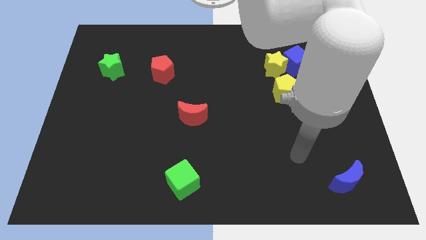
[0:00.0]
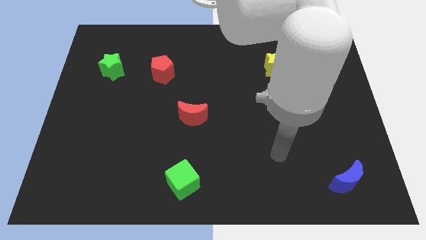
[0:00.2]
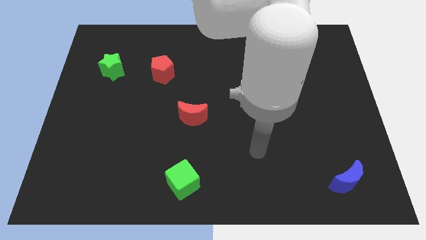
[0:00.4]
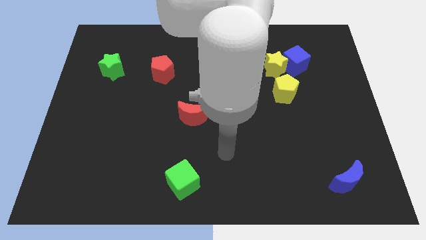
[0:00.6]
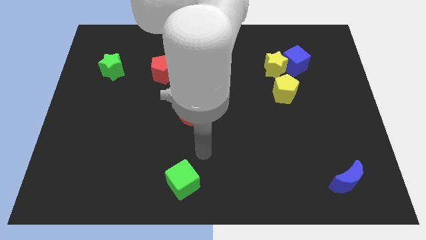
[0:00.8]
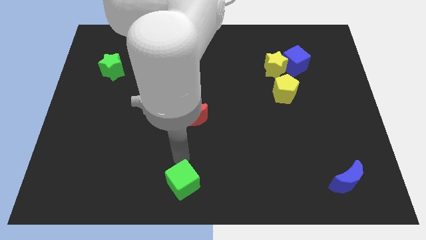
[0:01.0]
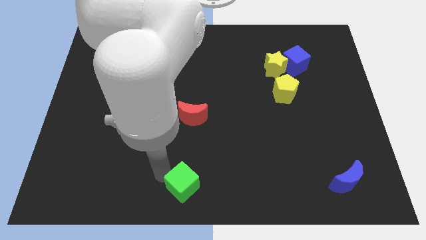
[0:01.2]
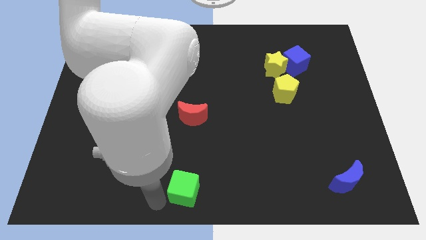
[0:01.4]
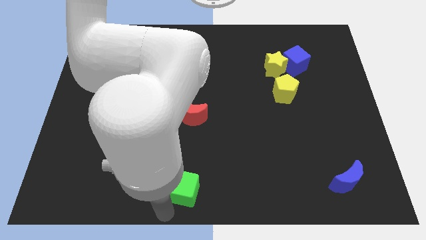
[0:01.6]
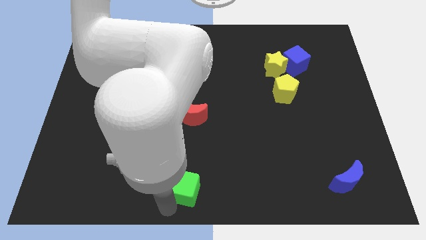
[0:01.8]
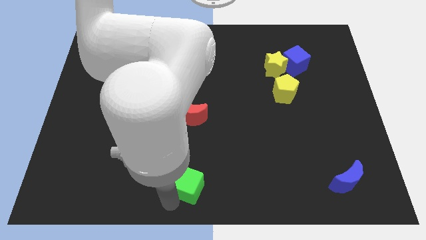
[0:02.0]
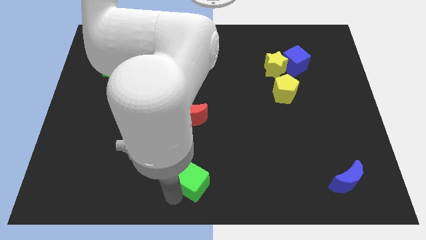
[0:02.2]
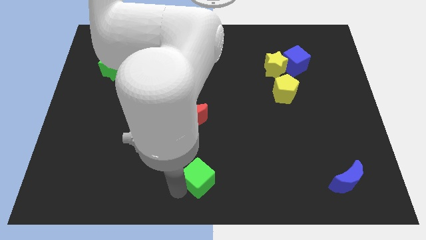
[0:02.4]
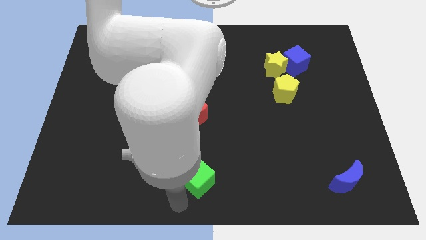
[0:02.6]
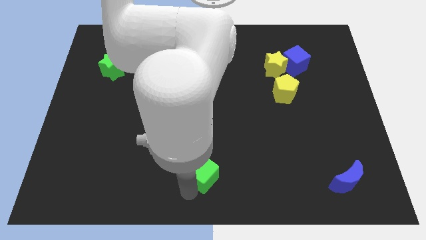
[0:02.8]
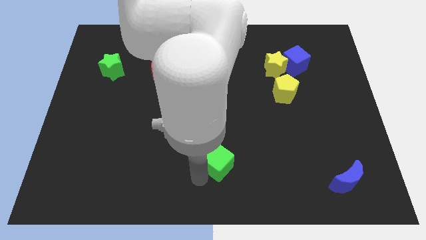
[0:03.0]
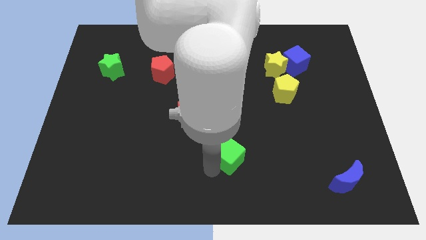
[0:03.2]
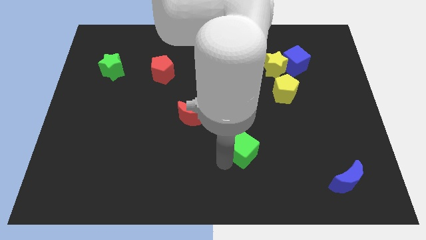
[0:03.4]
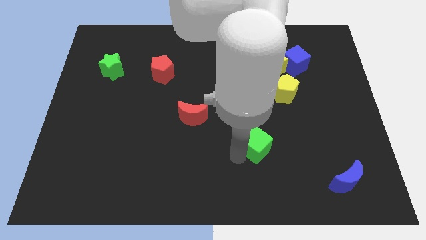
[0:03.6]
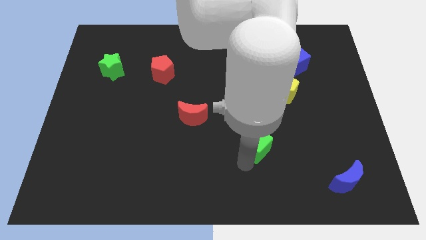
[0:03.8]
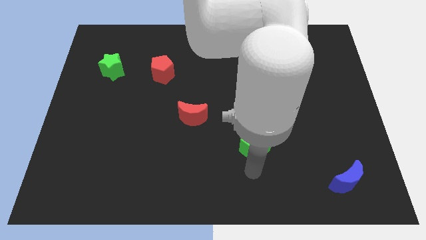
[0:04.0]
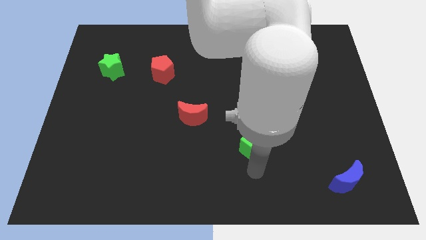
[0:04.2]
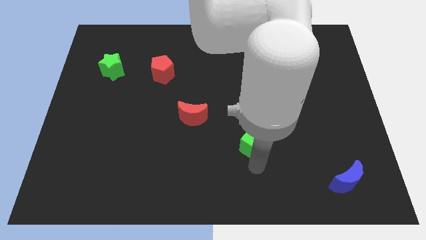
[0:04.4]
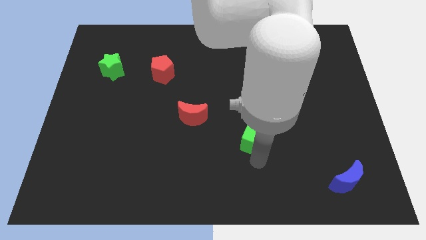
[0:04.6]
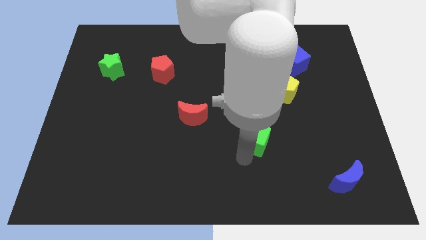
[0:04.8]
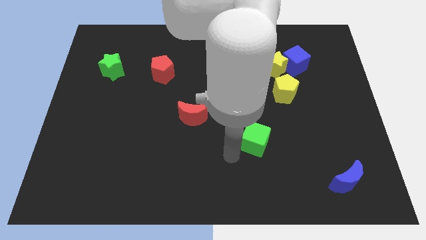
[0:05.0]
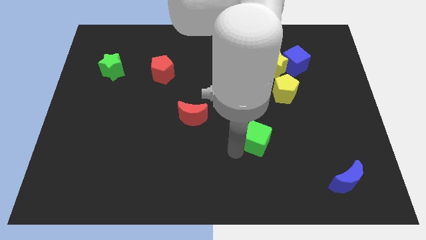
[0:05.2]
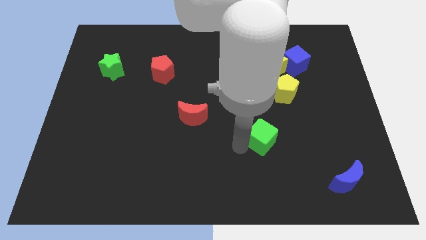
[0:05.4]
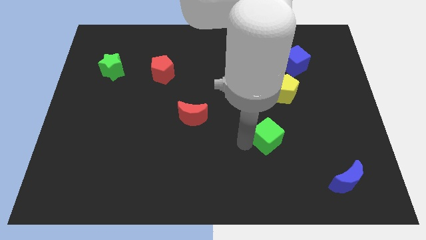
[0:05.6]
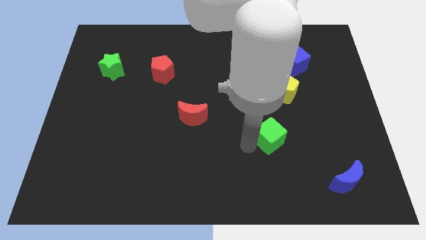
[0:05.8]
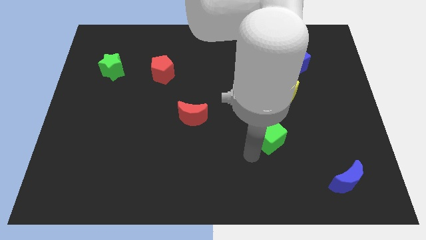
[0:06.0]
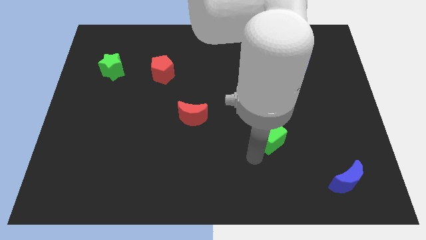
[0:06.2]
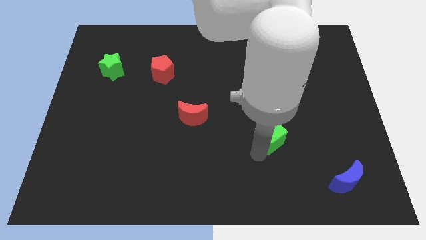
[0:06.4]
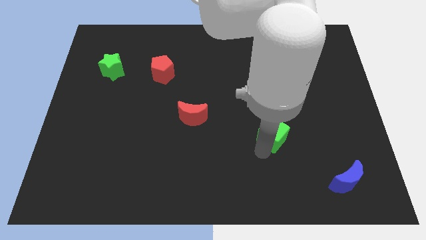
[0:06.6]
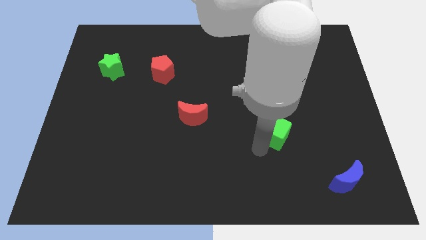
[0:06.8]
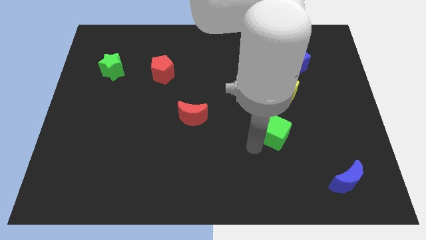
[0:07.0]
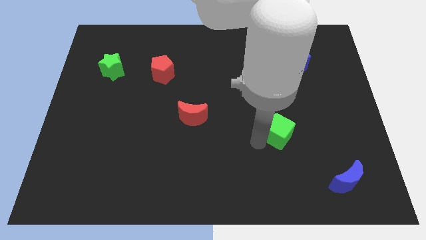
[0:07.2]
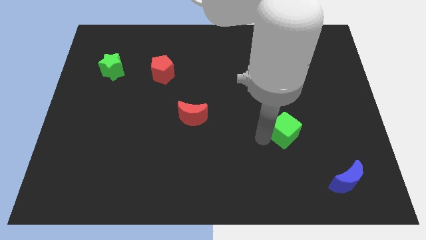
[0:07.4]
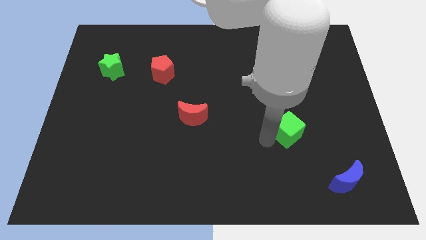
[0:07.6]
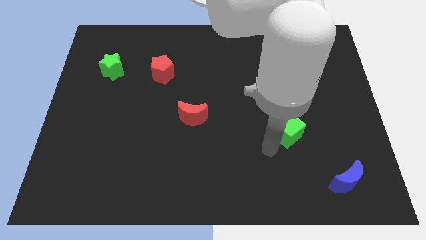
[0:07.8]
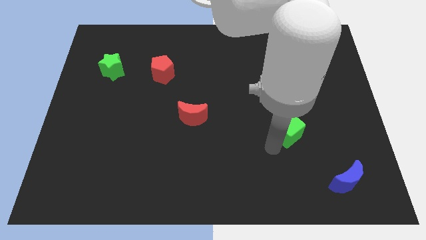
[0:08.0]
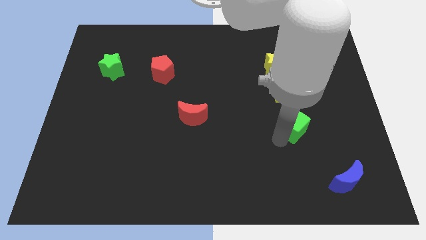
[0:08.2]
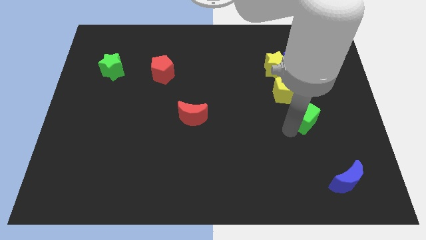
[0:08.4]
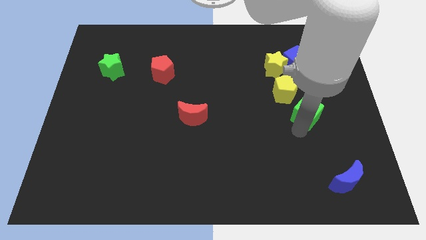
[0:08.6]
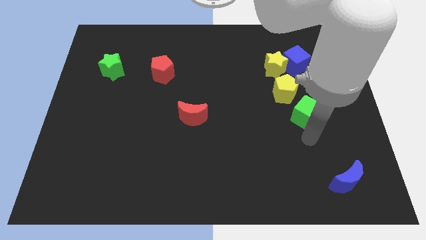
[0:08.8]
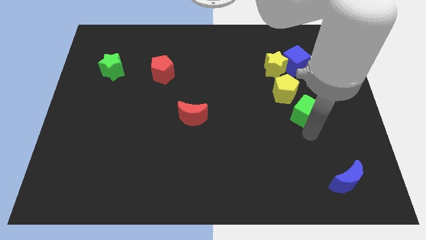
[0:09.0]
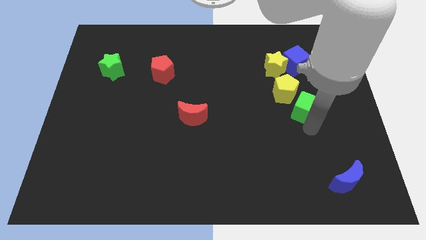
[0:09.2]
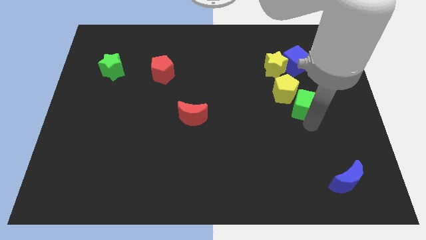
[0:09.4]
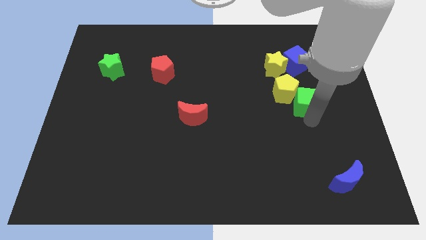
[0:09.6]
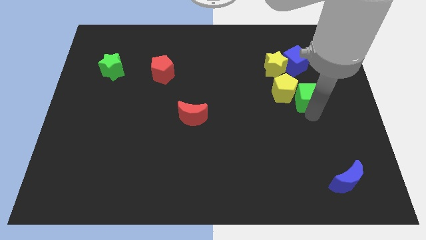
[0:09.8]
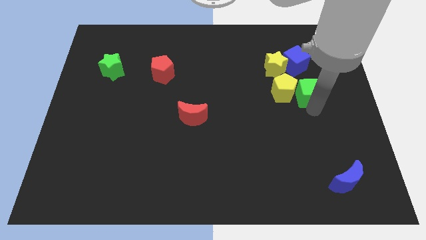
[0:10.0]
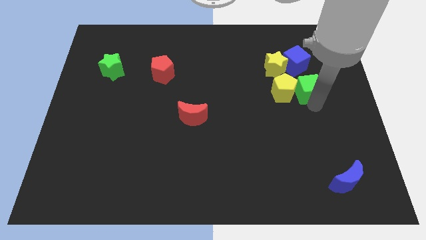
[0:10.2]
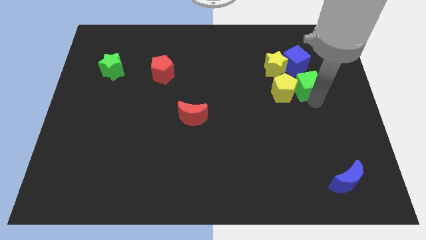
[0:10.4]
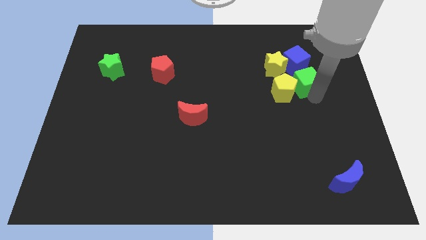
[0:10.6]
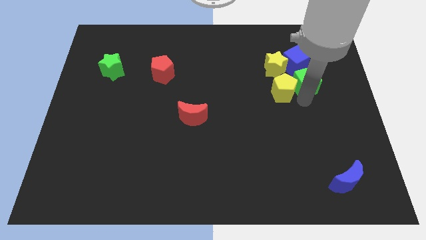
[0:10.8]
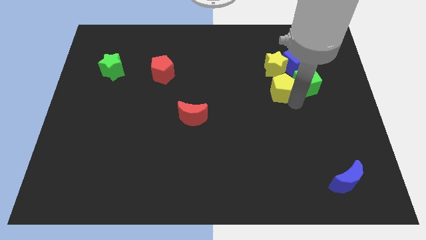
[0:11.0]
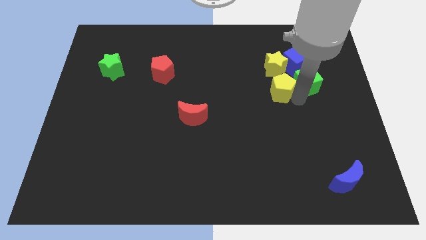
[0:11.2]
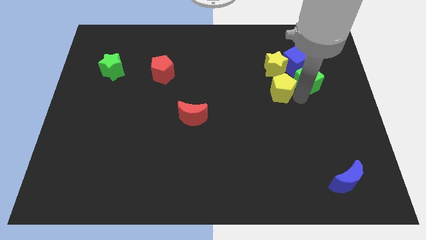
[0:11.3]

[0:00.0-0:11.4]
push the green cube to the right of the yellow star

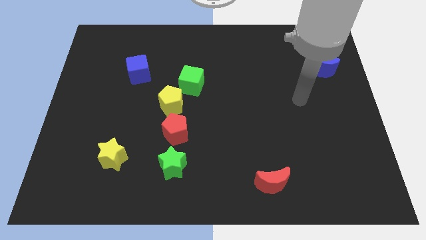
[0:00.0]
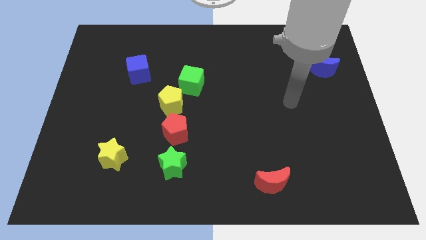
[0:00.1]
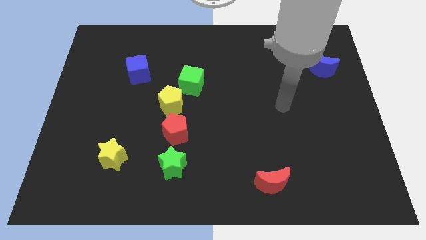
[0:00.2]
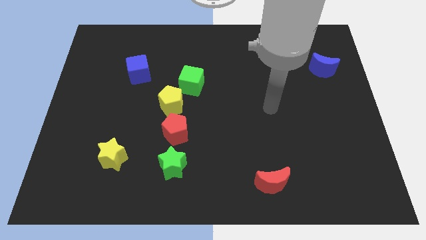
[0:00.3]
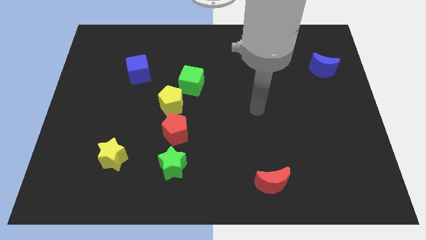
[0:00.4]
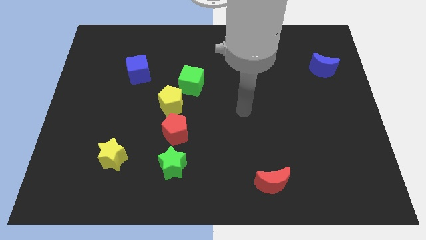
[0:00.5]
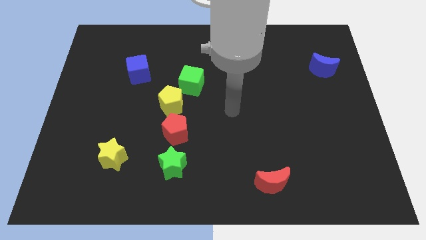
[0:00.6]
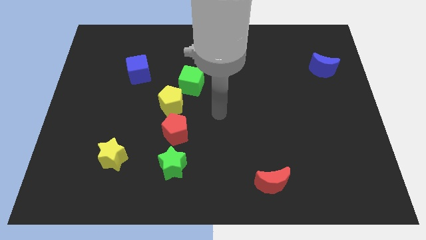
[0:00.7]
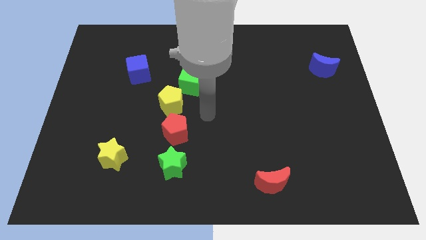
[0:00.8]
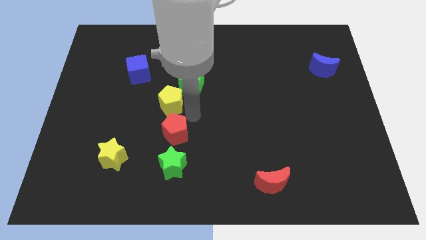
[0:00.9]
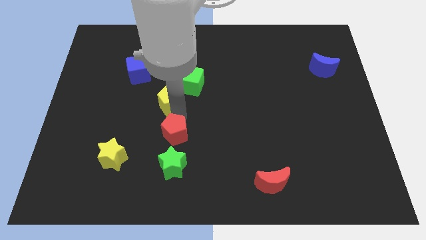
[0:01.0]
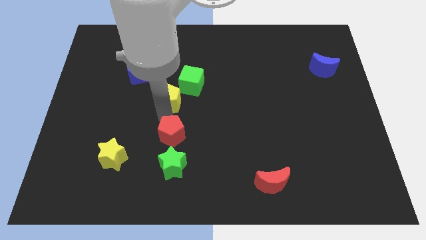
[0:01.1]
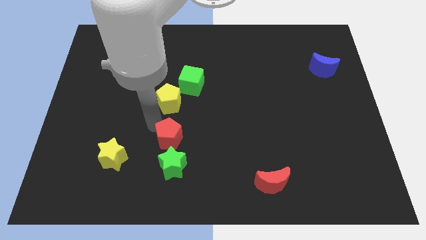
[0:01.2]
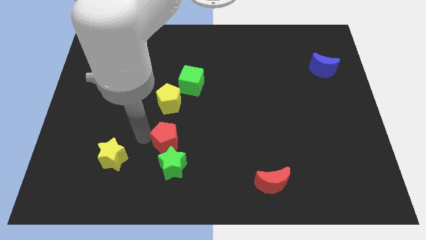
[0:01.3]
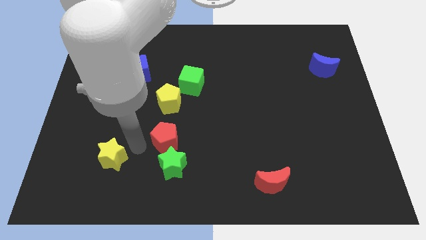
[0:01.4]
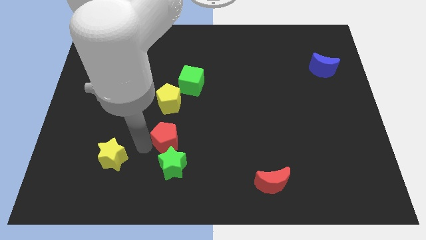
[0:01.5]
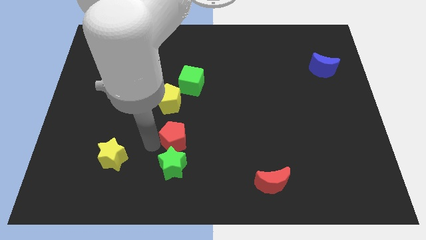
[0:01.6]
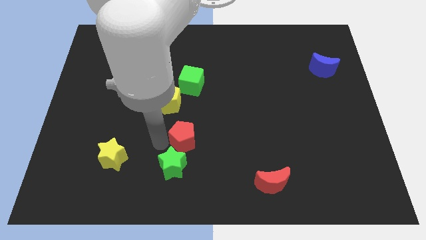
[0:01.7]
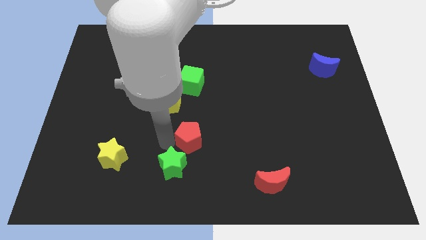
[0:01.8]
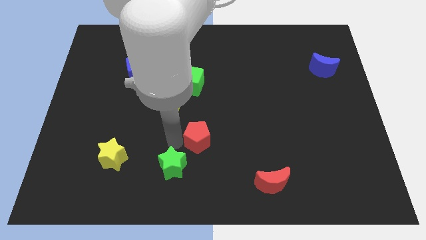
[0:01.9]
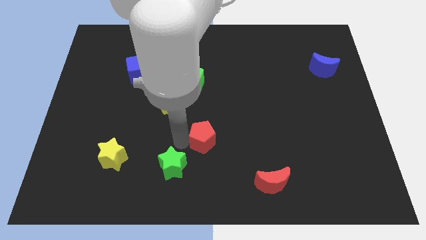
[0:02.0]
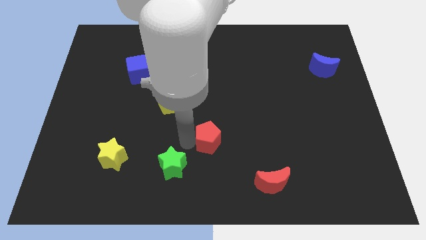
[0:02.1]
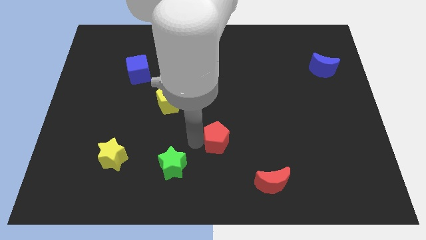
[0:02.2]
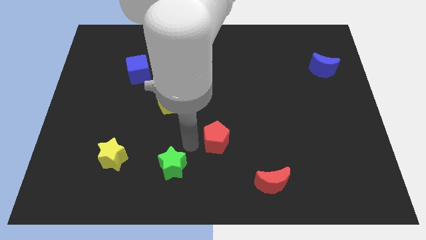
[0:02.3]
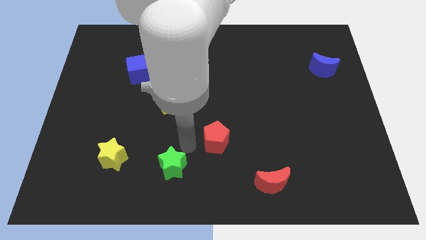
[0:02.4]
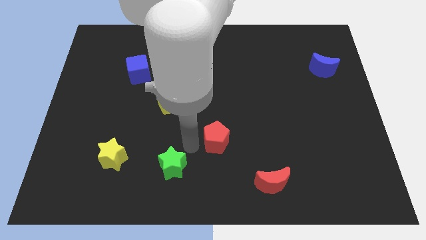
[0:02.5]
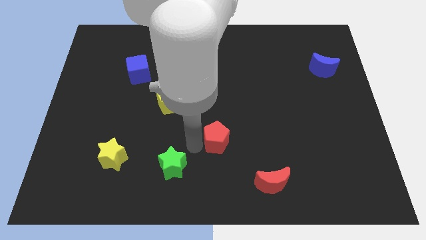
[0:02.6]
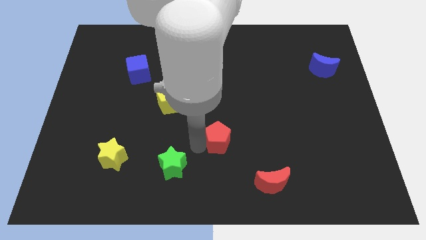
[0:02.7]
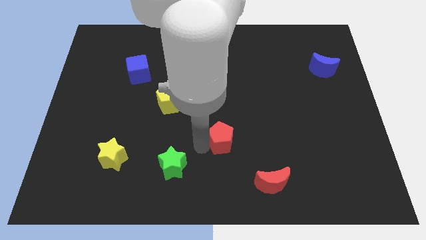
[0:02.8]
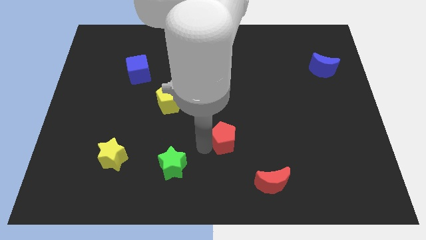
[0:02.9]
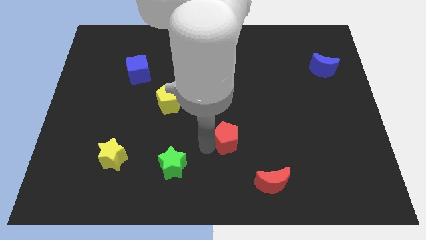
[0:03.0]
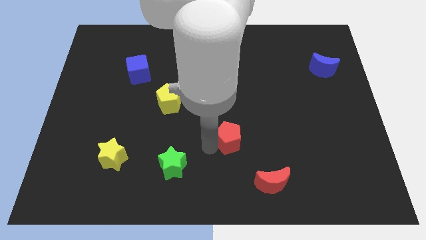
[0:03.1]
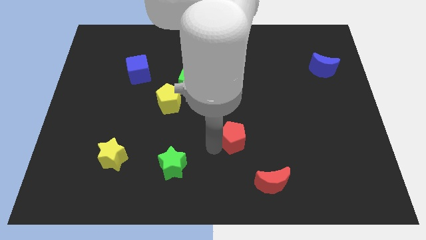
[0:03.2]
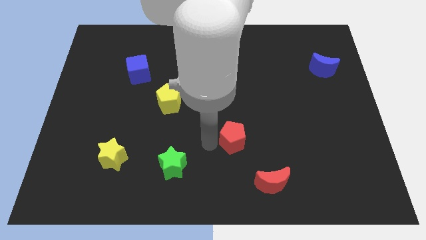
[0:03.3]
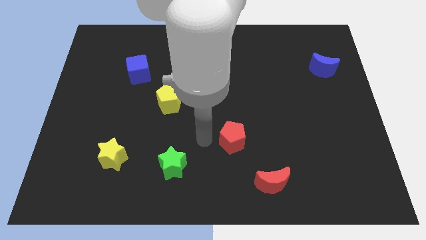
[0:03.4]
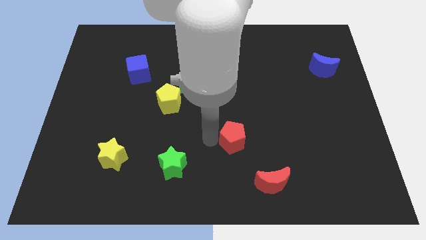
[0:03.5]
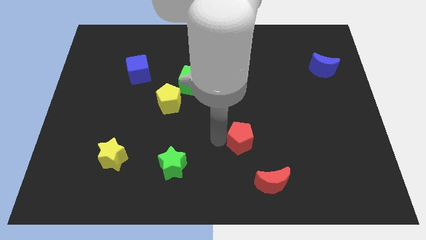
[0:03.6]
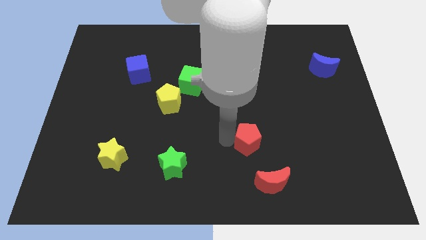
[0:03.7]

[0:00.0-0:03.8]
slide the red pentagon to the top of the red moon
